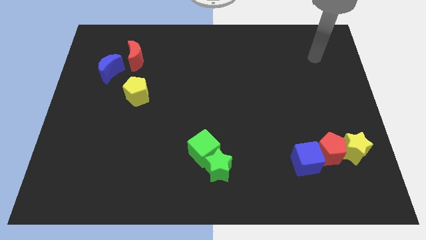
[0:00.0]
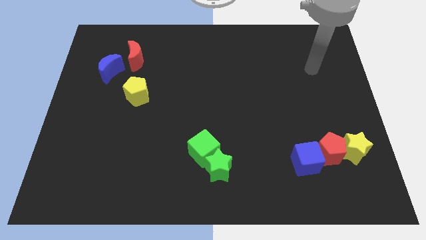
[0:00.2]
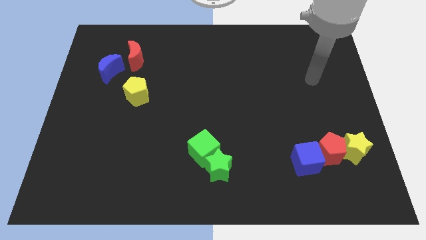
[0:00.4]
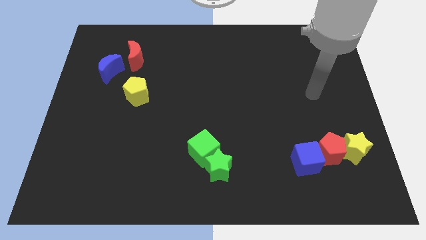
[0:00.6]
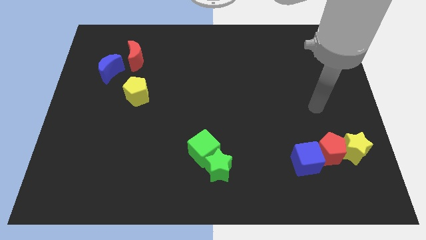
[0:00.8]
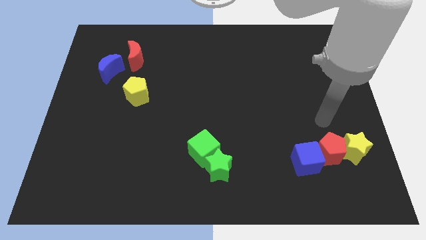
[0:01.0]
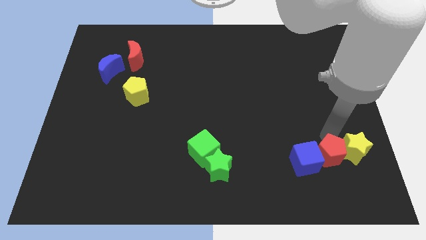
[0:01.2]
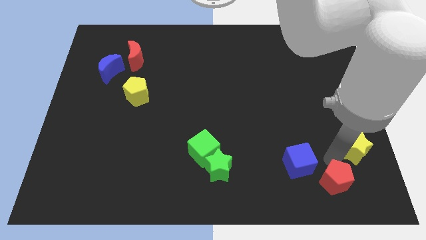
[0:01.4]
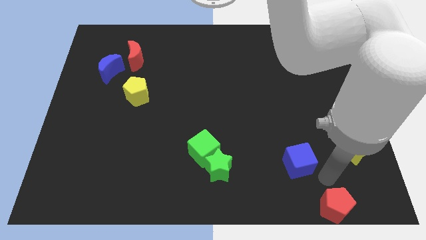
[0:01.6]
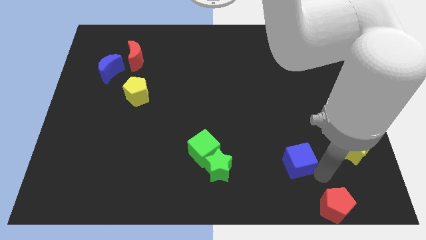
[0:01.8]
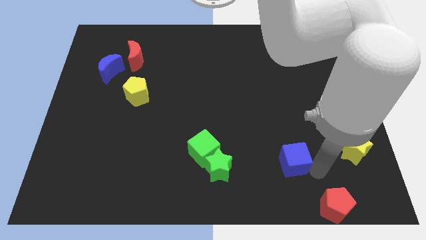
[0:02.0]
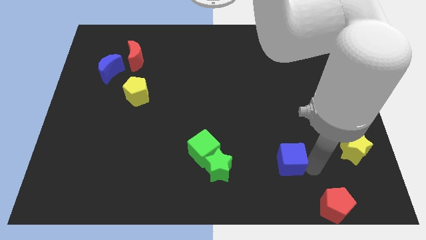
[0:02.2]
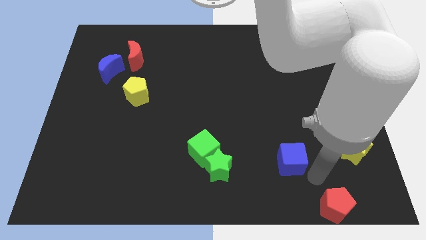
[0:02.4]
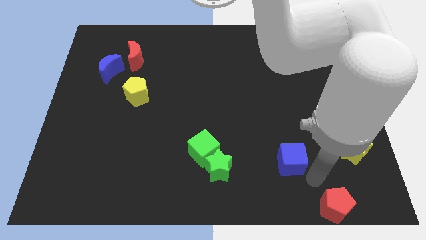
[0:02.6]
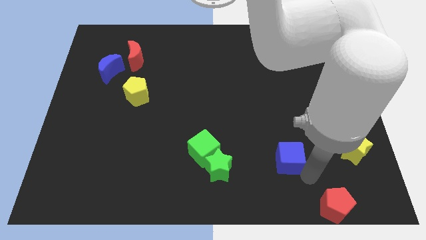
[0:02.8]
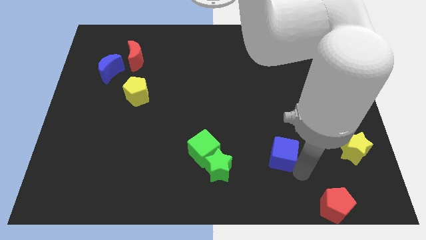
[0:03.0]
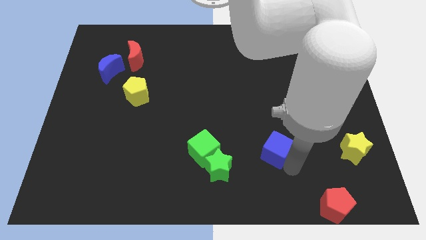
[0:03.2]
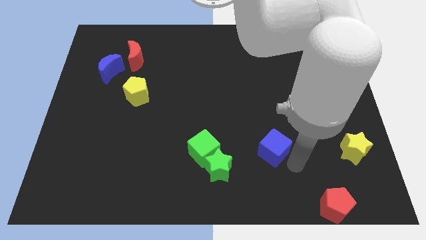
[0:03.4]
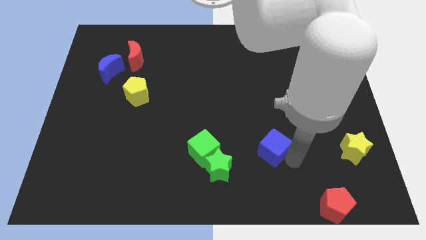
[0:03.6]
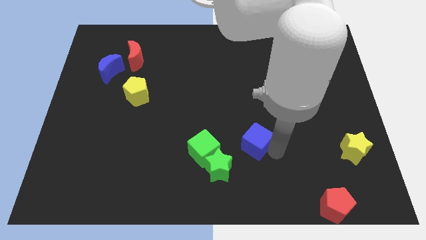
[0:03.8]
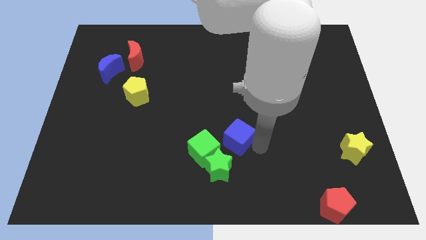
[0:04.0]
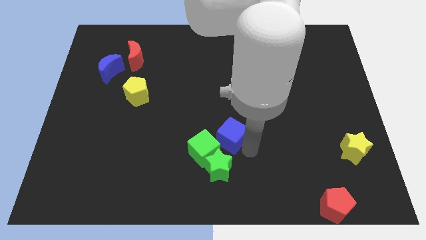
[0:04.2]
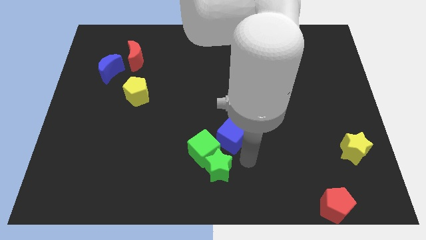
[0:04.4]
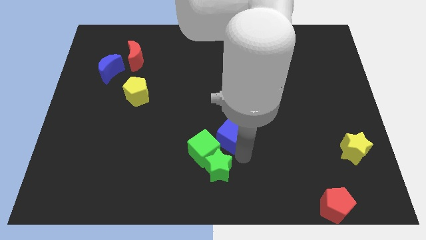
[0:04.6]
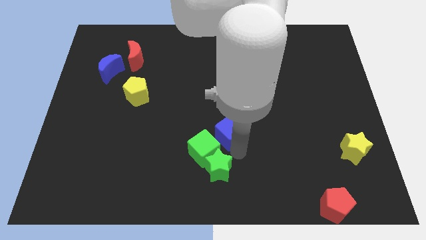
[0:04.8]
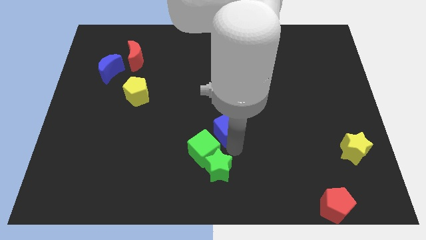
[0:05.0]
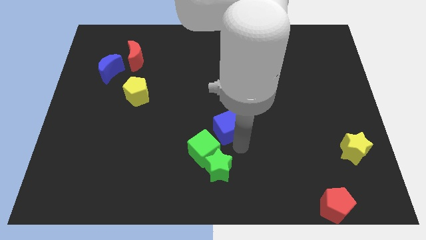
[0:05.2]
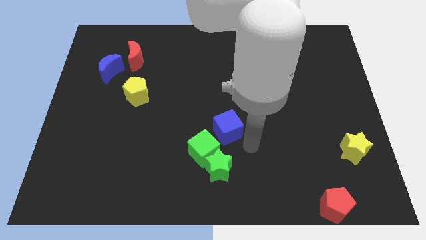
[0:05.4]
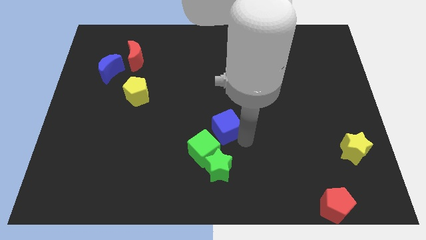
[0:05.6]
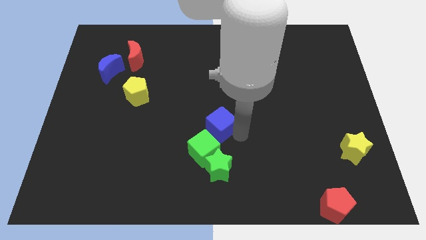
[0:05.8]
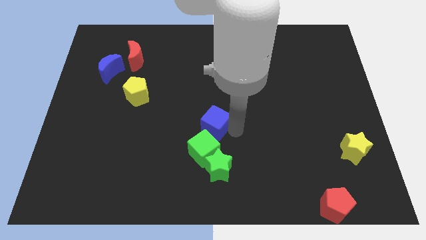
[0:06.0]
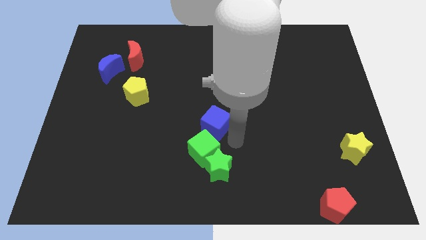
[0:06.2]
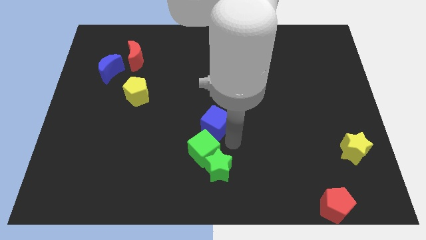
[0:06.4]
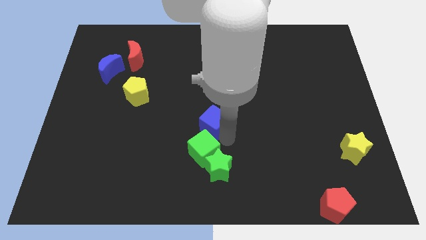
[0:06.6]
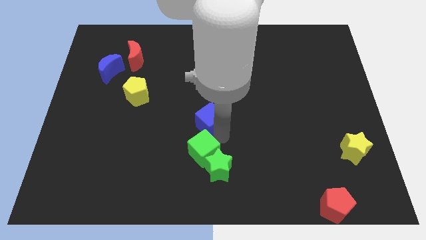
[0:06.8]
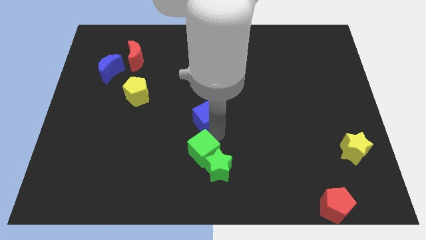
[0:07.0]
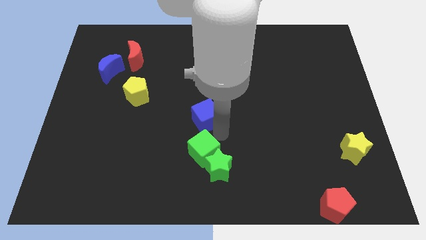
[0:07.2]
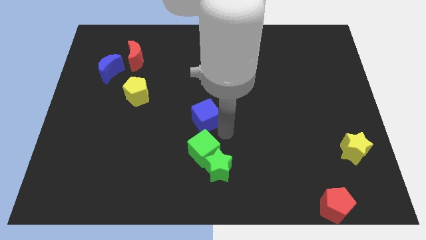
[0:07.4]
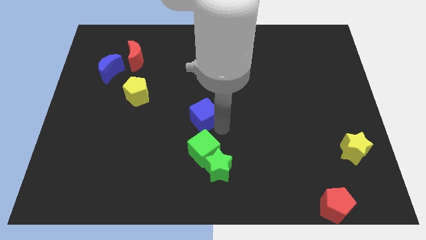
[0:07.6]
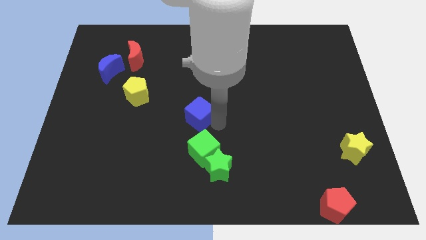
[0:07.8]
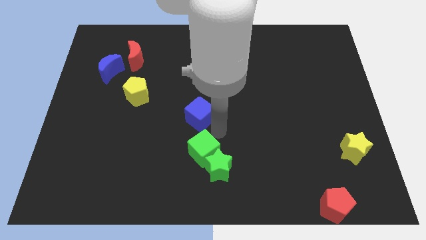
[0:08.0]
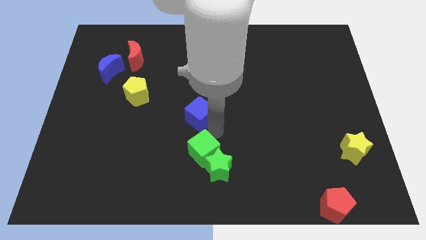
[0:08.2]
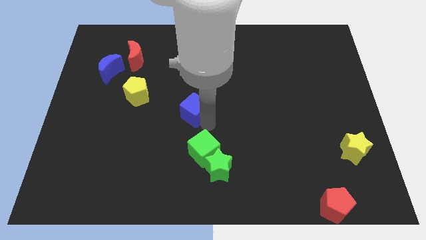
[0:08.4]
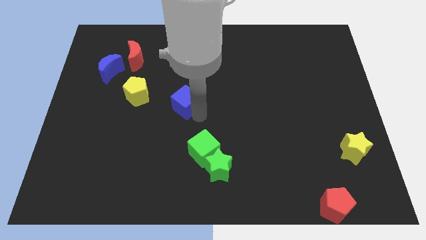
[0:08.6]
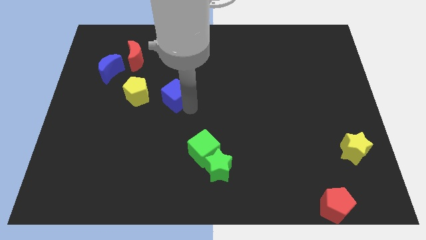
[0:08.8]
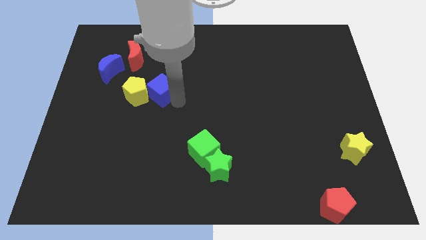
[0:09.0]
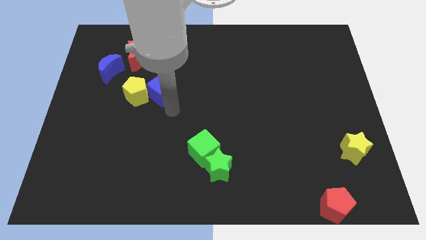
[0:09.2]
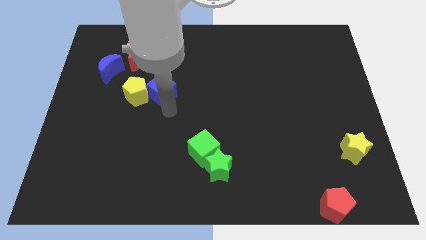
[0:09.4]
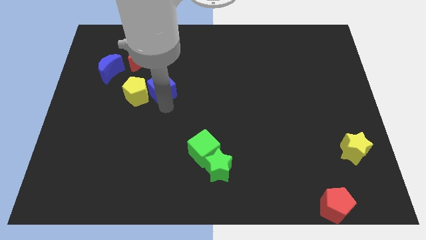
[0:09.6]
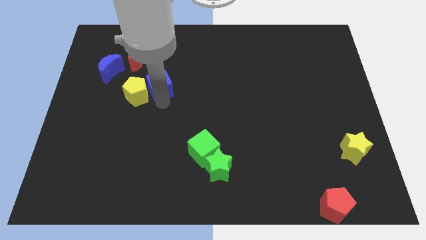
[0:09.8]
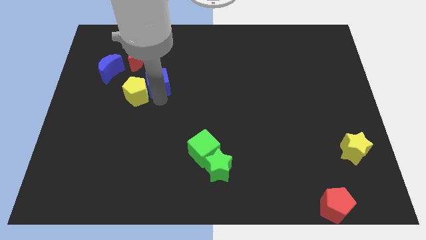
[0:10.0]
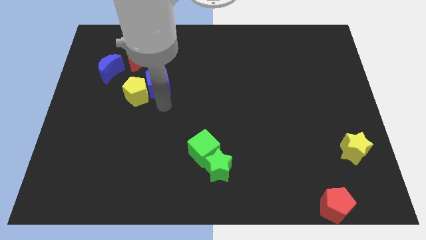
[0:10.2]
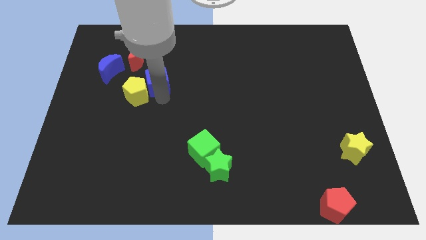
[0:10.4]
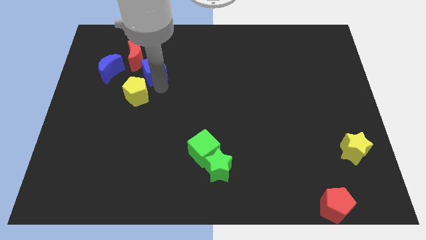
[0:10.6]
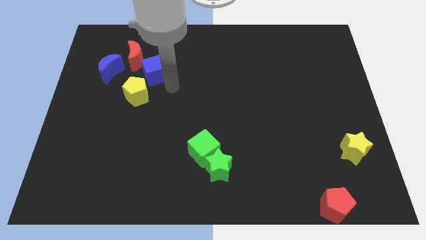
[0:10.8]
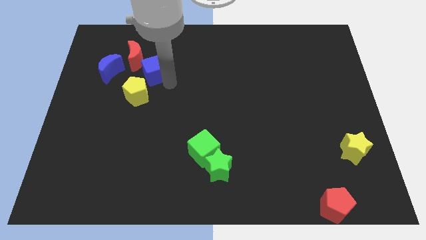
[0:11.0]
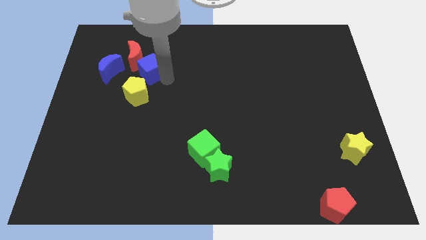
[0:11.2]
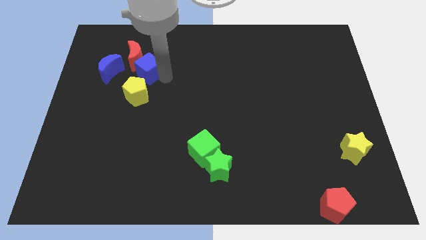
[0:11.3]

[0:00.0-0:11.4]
push the blue cube close to the red moon

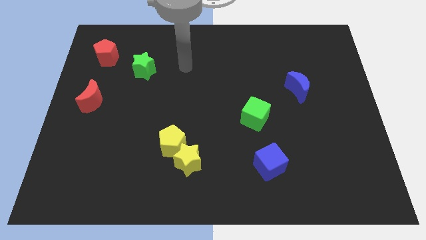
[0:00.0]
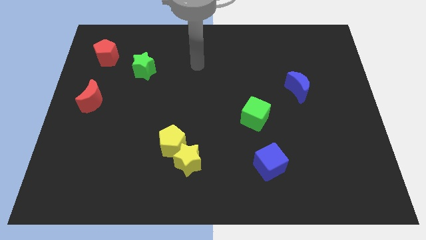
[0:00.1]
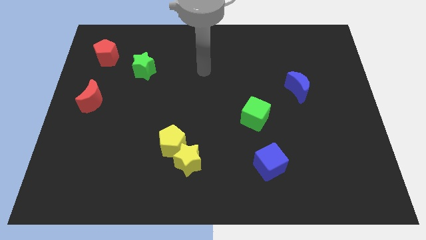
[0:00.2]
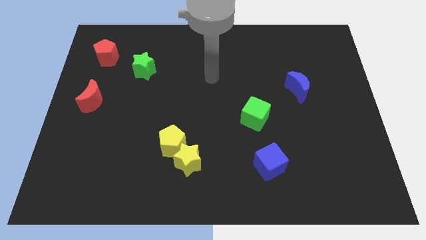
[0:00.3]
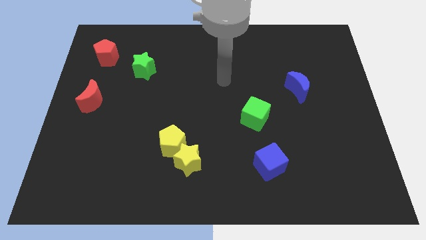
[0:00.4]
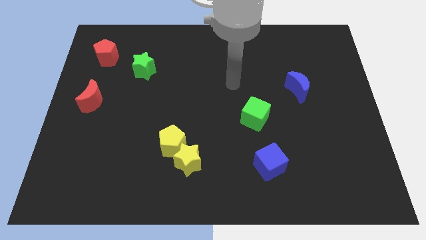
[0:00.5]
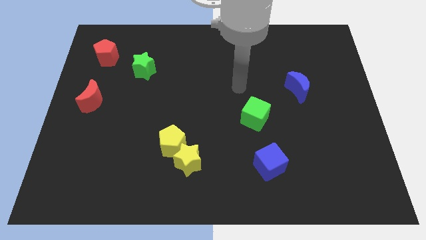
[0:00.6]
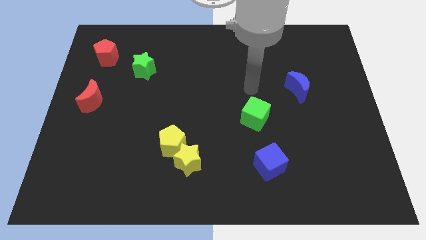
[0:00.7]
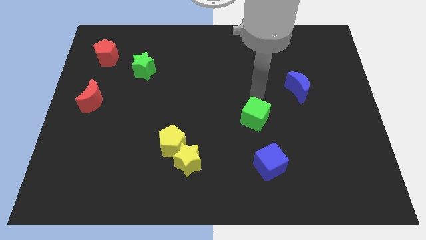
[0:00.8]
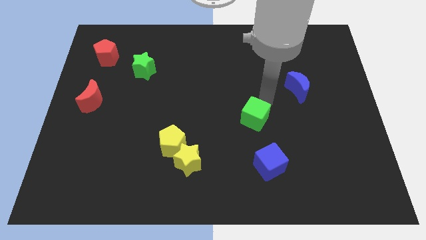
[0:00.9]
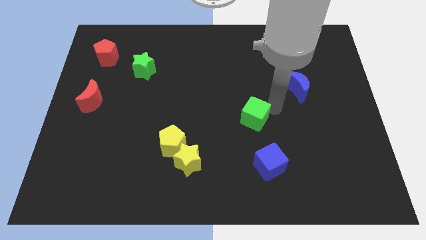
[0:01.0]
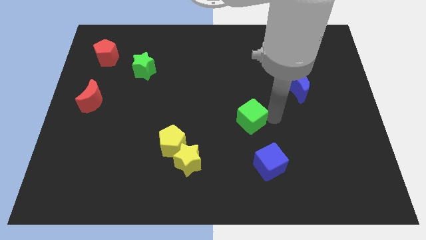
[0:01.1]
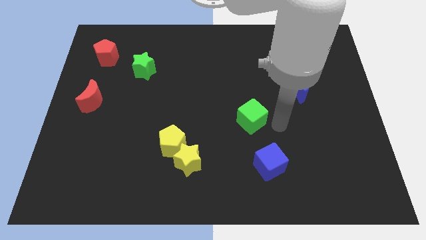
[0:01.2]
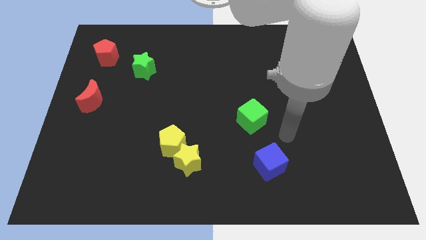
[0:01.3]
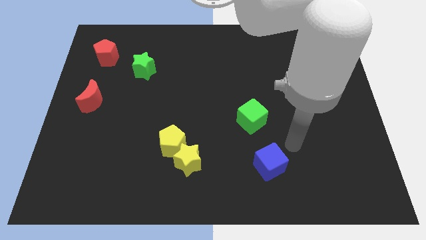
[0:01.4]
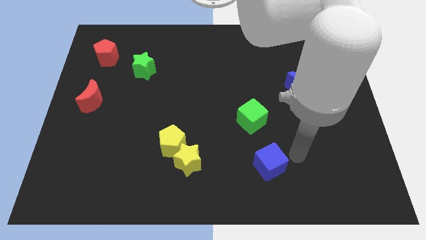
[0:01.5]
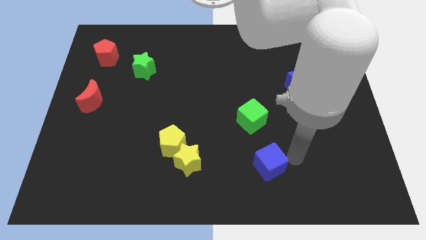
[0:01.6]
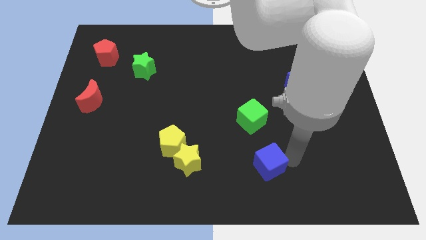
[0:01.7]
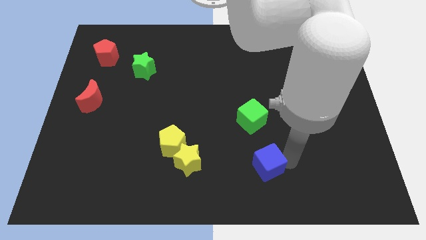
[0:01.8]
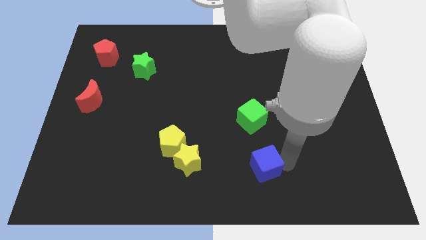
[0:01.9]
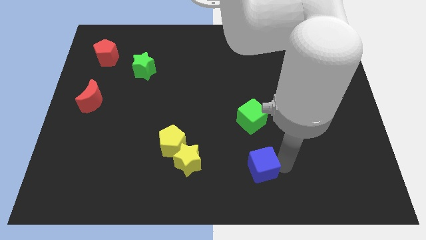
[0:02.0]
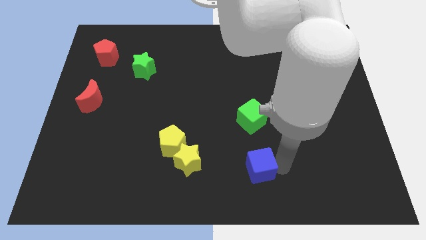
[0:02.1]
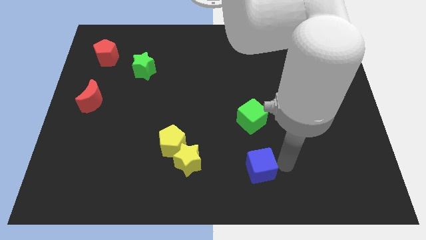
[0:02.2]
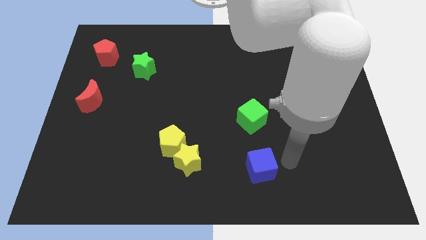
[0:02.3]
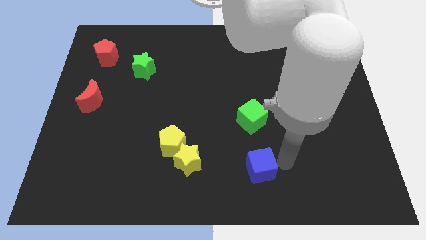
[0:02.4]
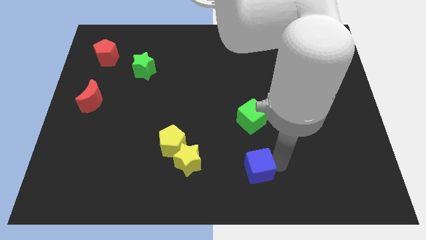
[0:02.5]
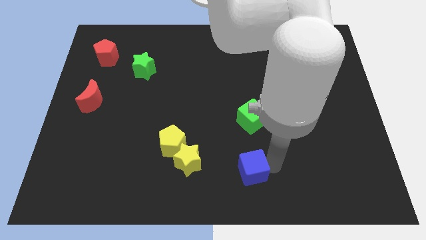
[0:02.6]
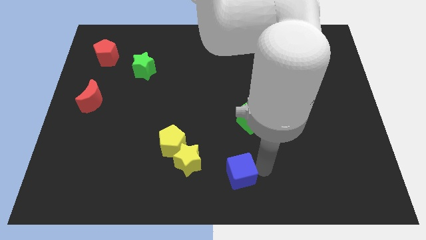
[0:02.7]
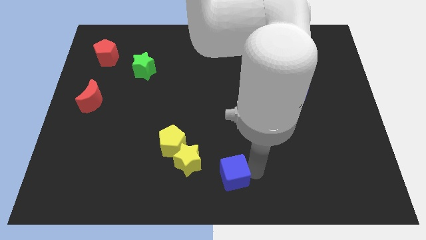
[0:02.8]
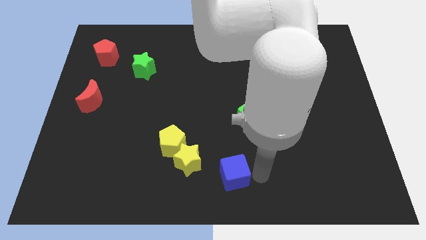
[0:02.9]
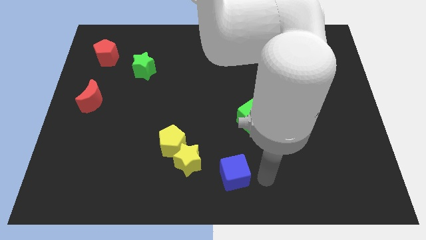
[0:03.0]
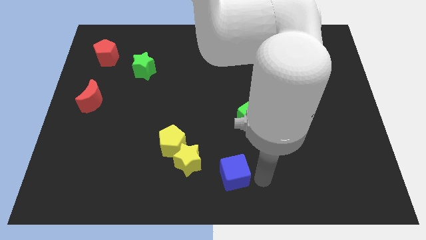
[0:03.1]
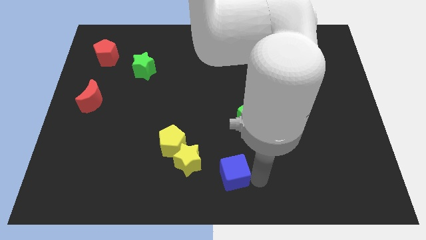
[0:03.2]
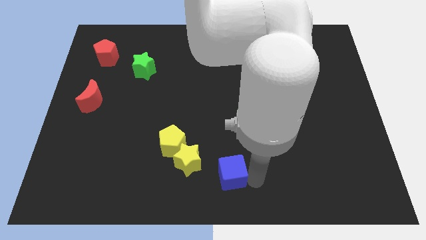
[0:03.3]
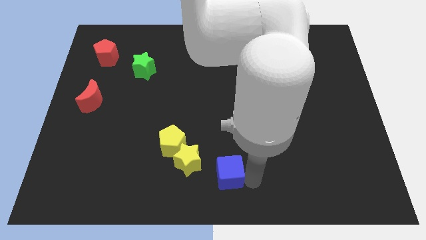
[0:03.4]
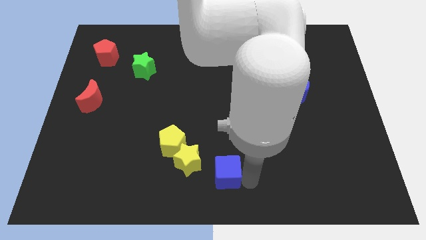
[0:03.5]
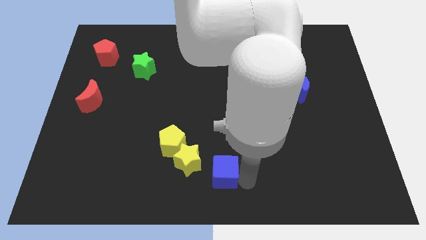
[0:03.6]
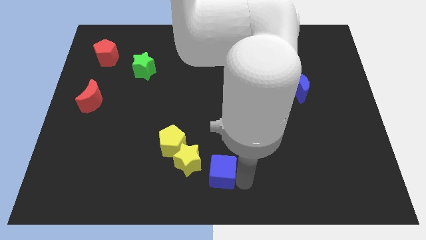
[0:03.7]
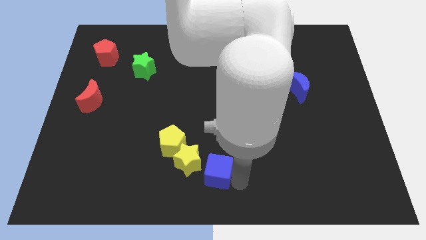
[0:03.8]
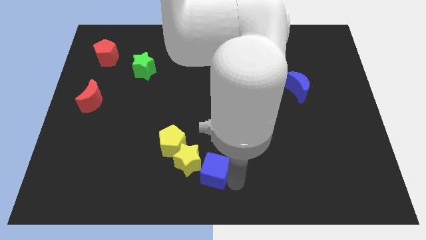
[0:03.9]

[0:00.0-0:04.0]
push the blue cube to the yellow star
